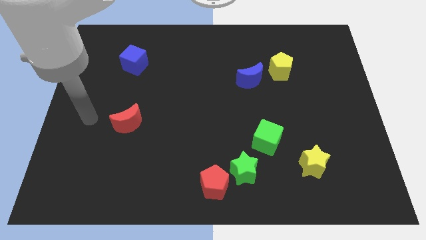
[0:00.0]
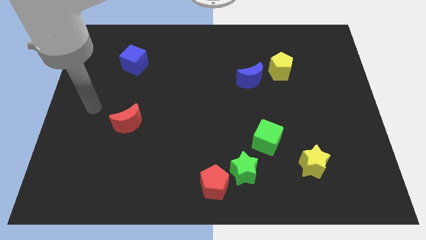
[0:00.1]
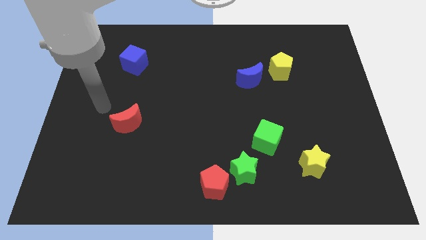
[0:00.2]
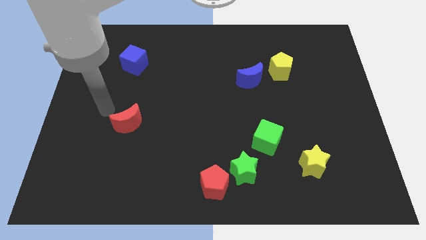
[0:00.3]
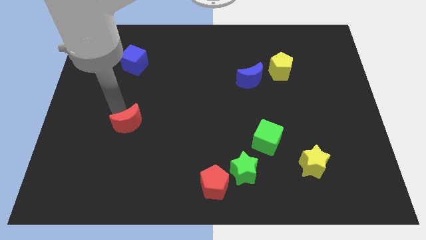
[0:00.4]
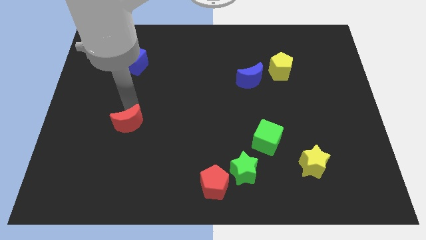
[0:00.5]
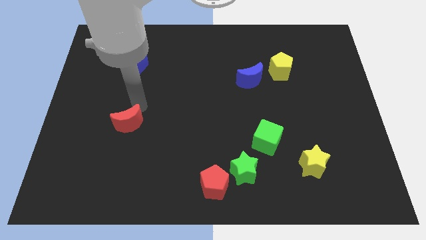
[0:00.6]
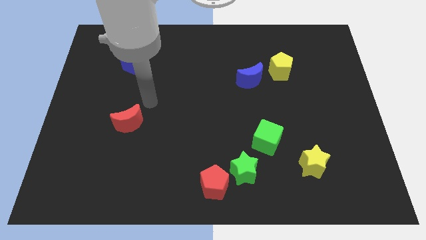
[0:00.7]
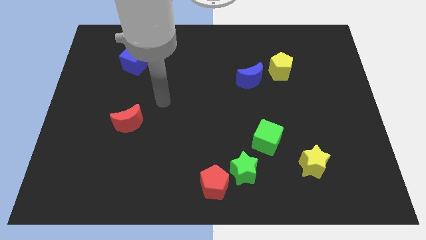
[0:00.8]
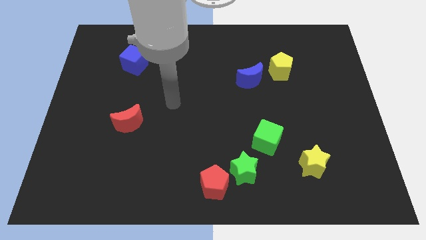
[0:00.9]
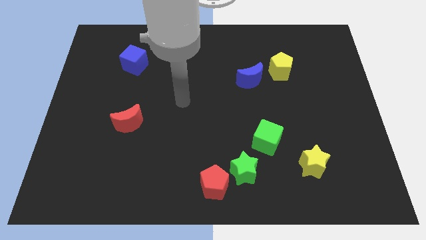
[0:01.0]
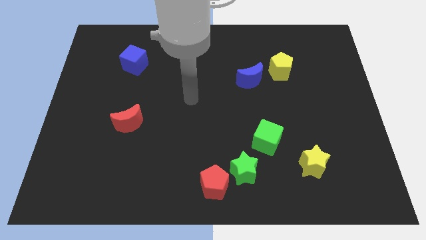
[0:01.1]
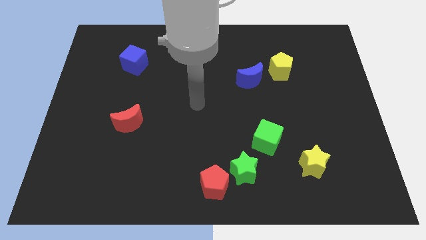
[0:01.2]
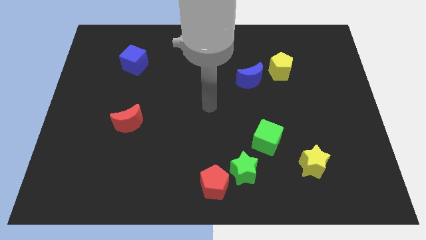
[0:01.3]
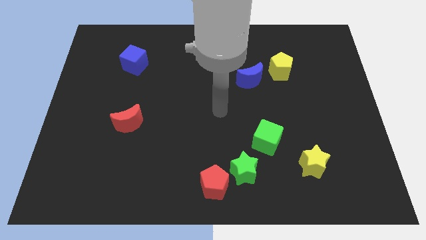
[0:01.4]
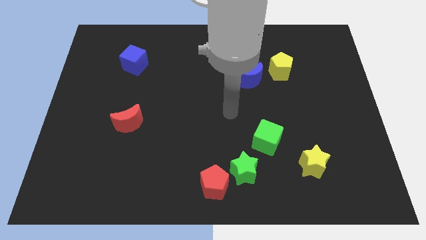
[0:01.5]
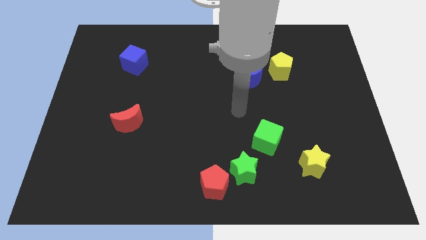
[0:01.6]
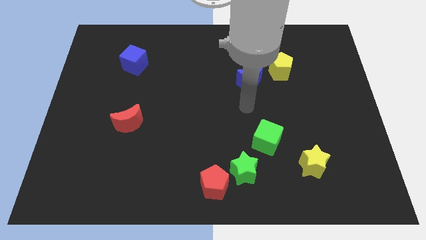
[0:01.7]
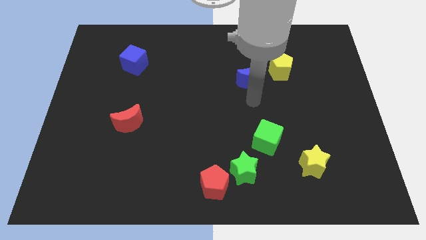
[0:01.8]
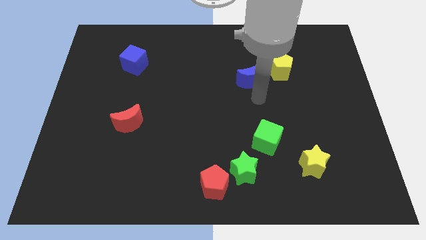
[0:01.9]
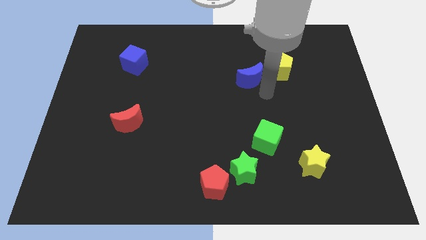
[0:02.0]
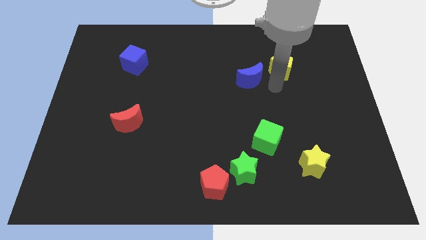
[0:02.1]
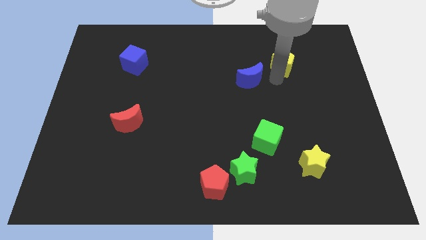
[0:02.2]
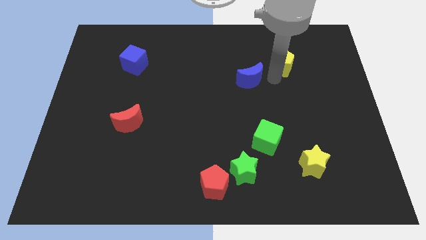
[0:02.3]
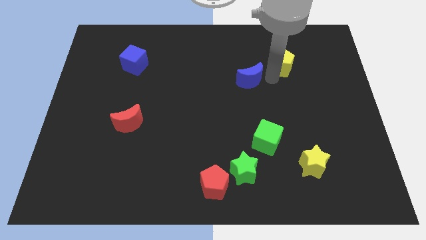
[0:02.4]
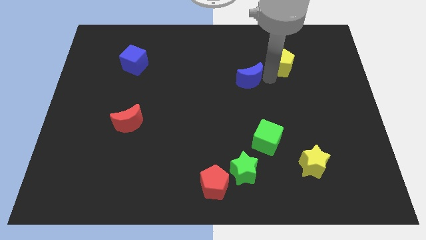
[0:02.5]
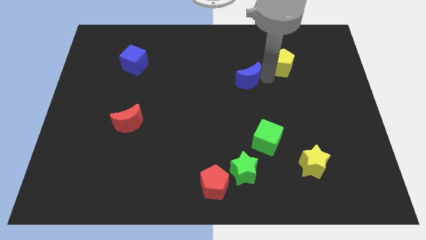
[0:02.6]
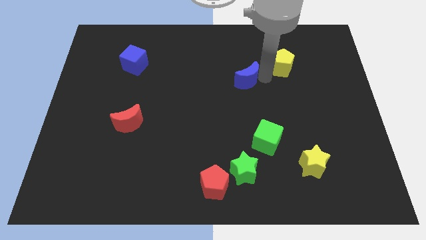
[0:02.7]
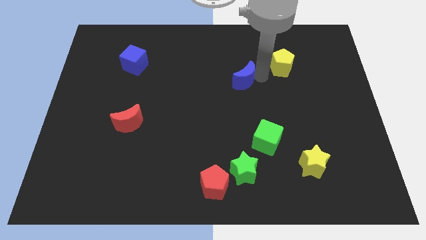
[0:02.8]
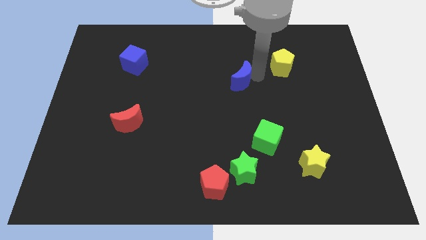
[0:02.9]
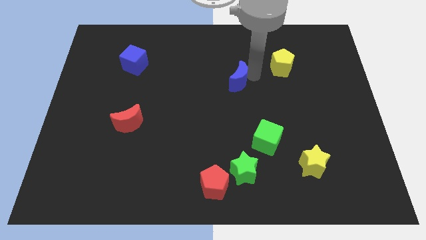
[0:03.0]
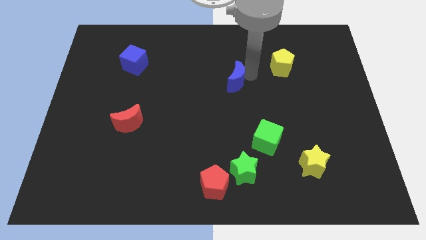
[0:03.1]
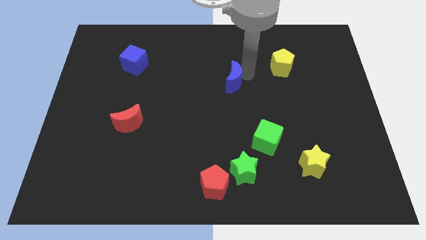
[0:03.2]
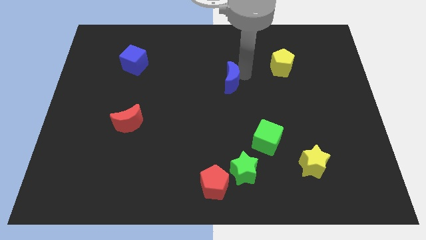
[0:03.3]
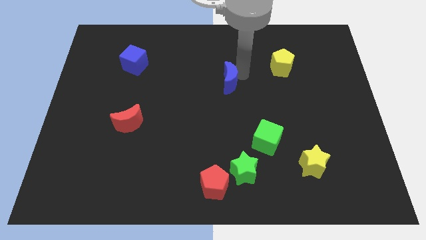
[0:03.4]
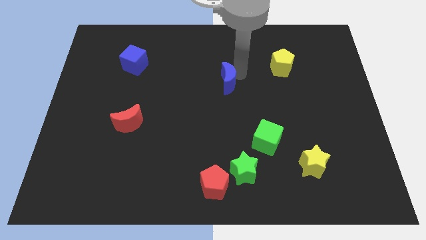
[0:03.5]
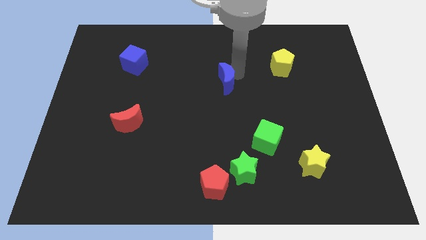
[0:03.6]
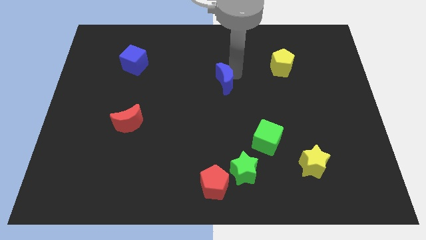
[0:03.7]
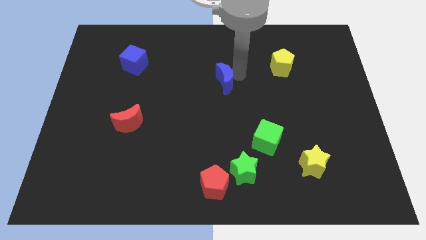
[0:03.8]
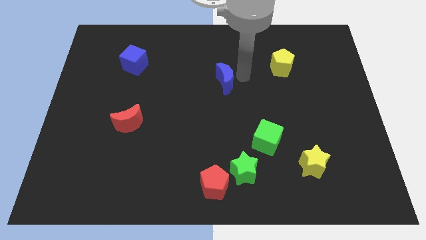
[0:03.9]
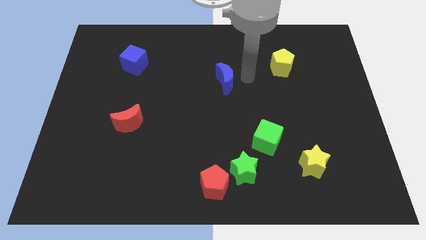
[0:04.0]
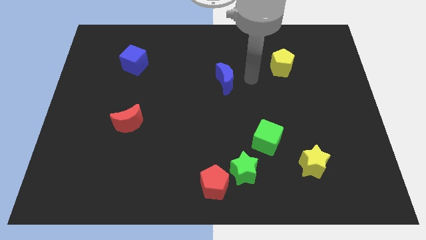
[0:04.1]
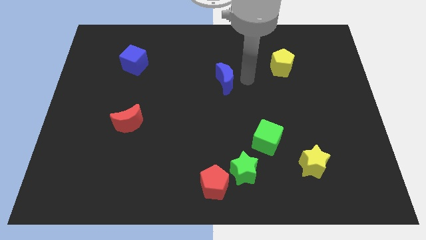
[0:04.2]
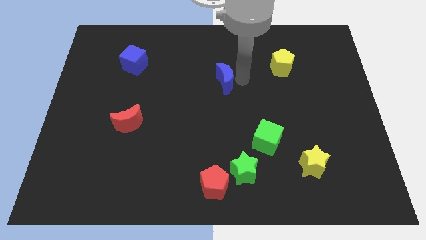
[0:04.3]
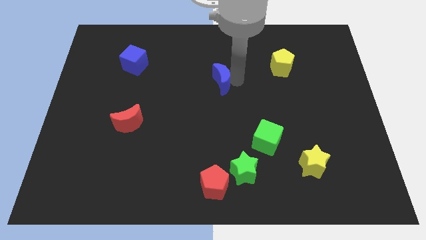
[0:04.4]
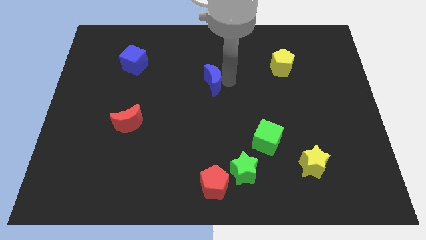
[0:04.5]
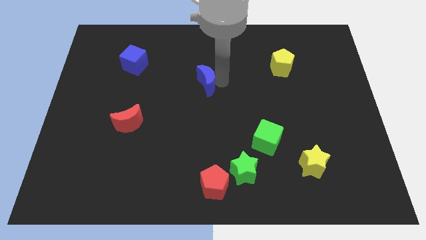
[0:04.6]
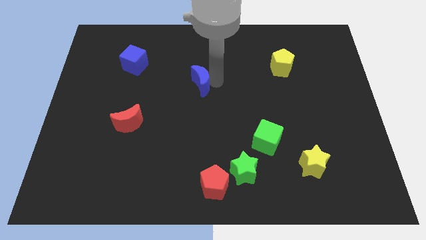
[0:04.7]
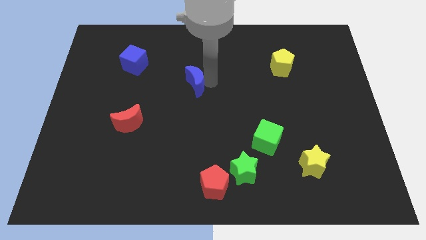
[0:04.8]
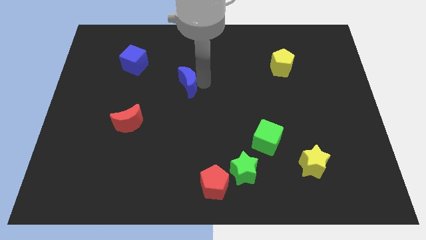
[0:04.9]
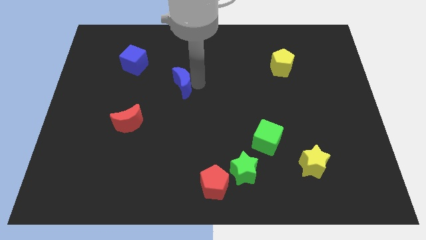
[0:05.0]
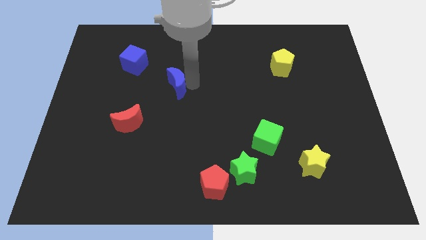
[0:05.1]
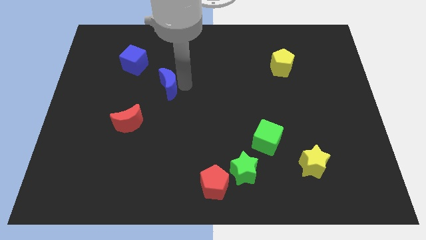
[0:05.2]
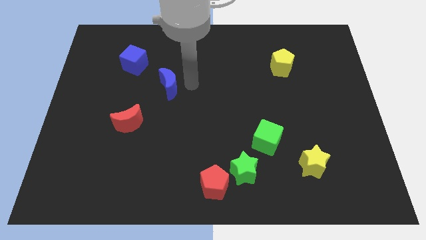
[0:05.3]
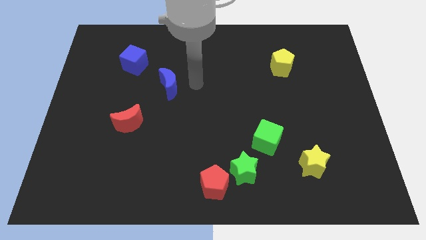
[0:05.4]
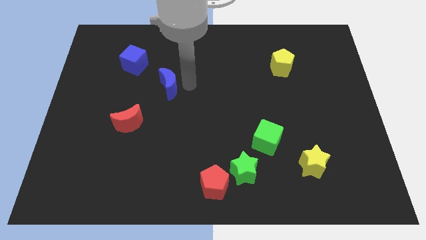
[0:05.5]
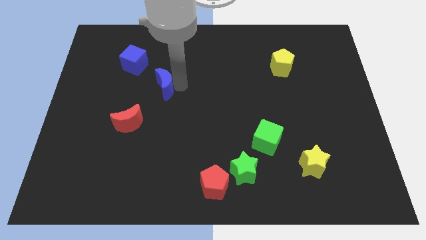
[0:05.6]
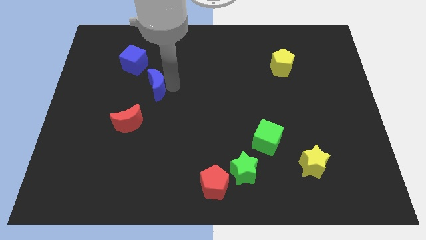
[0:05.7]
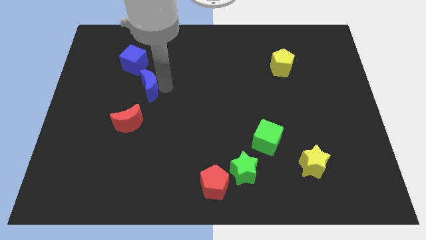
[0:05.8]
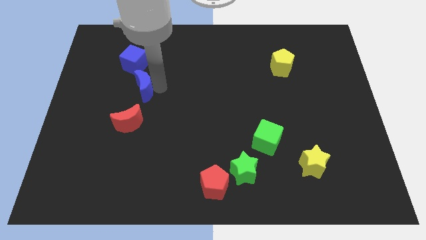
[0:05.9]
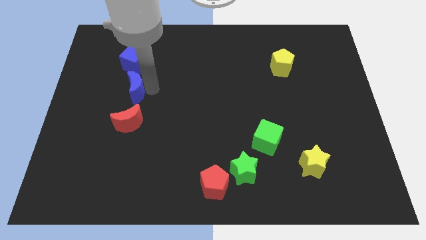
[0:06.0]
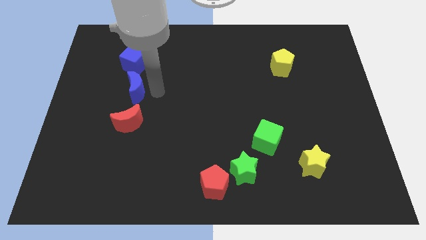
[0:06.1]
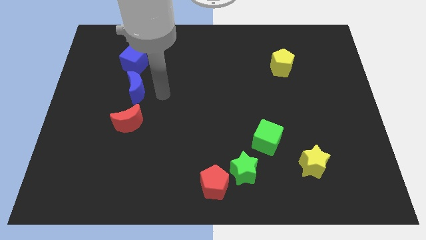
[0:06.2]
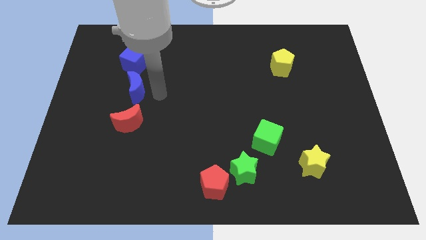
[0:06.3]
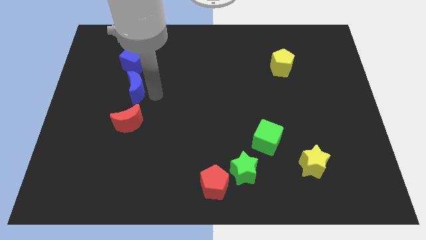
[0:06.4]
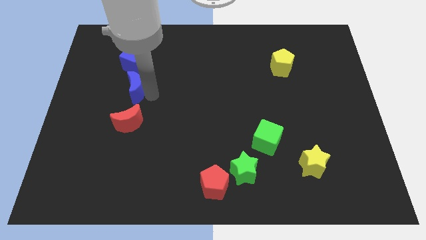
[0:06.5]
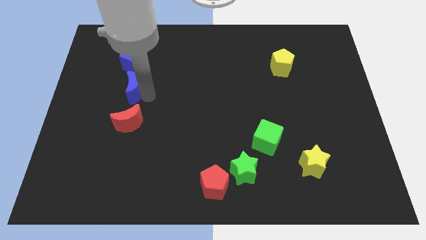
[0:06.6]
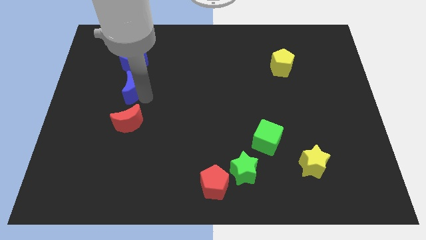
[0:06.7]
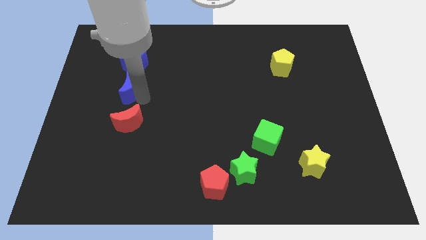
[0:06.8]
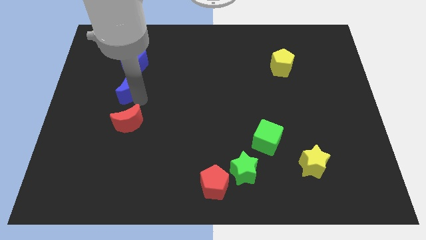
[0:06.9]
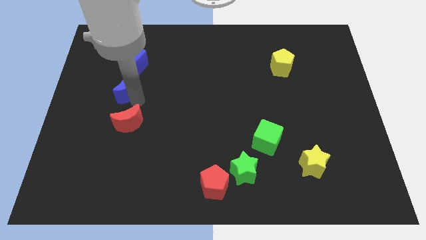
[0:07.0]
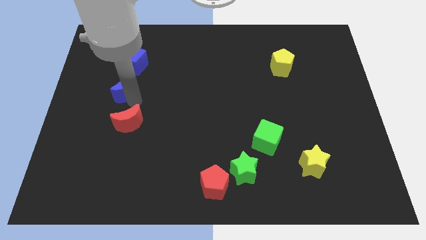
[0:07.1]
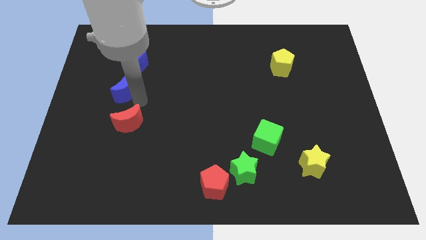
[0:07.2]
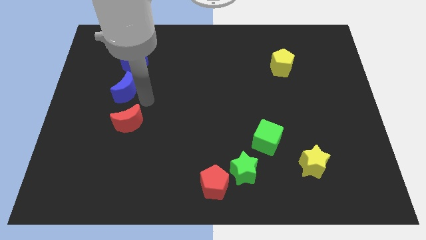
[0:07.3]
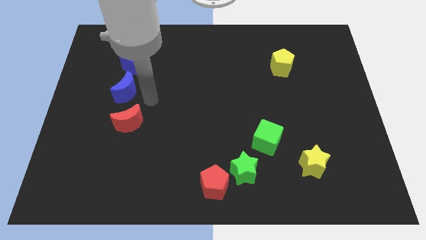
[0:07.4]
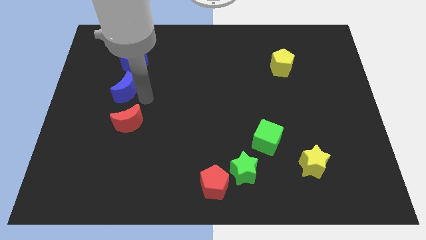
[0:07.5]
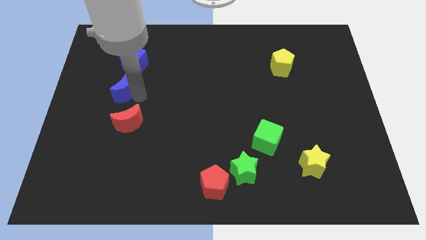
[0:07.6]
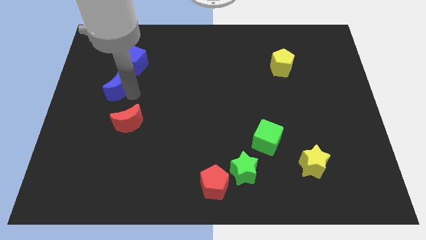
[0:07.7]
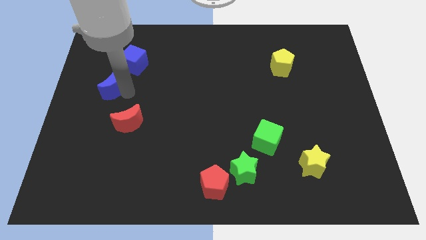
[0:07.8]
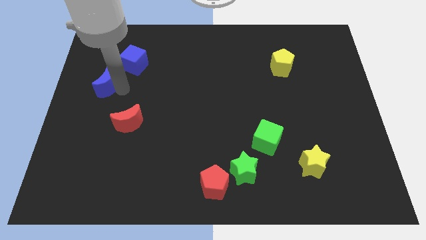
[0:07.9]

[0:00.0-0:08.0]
move the blue moon to the center left
